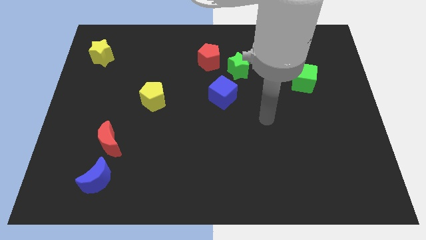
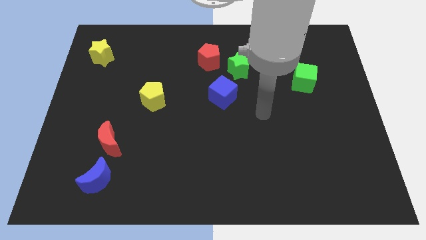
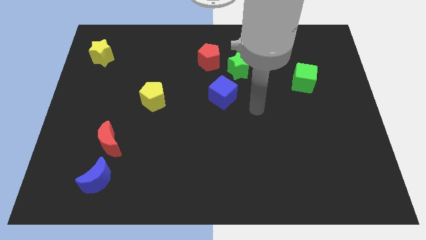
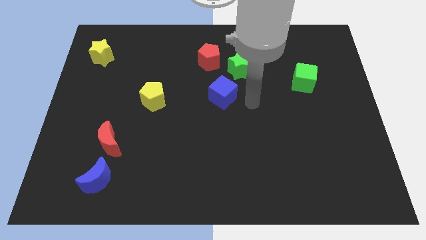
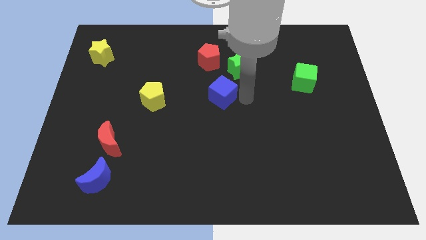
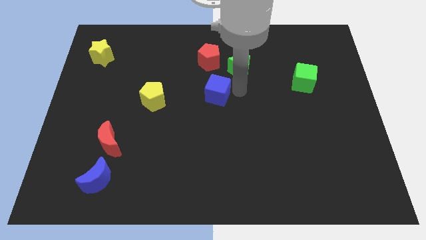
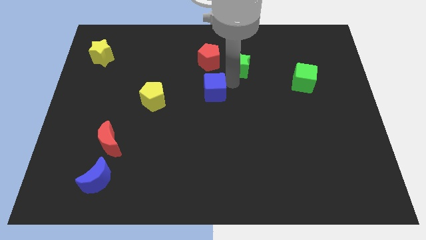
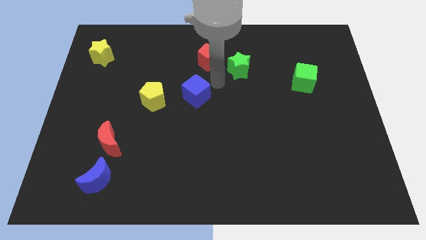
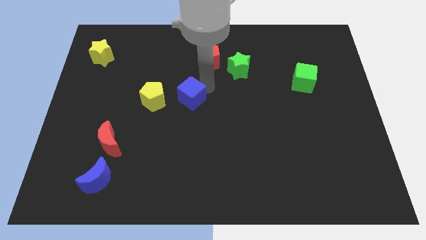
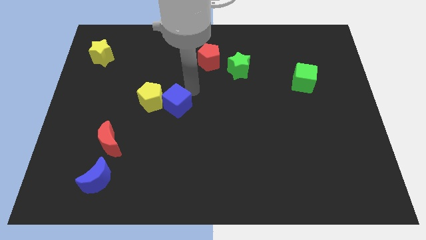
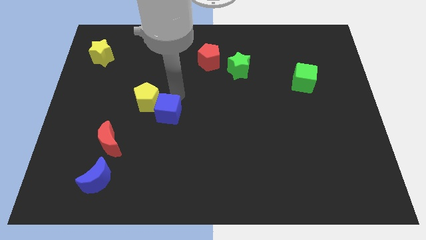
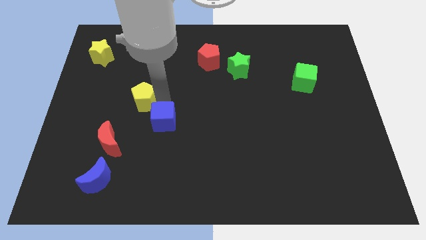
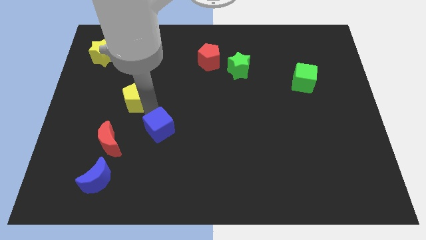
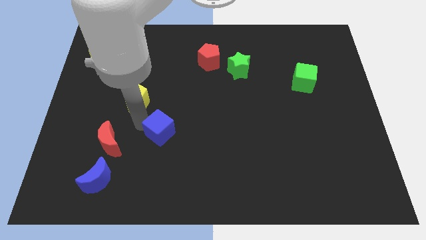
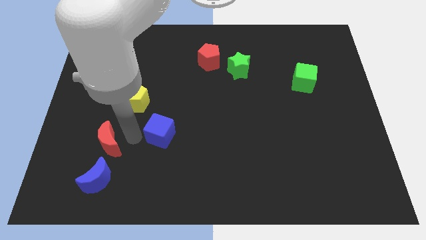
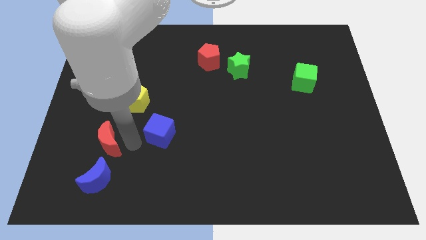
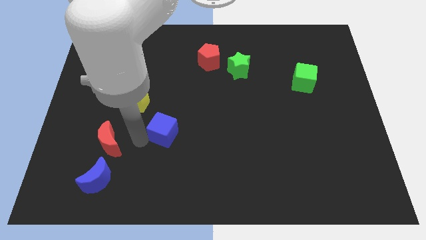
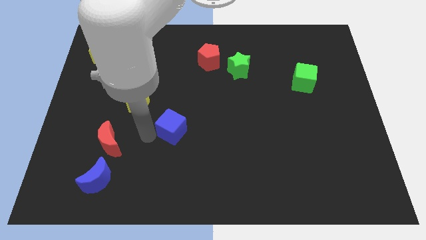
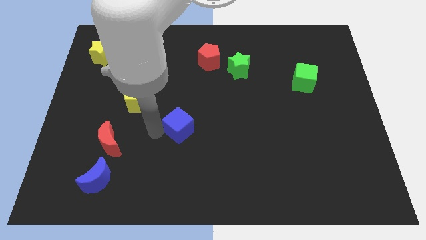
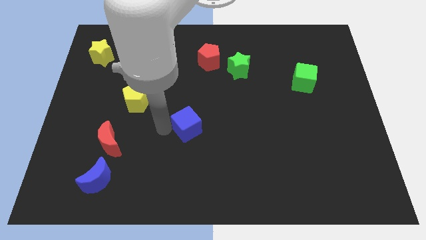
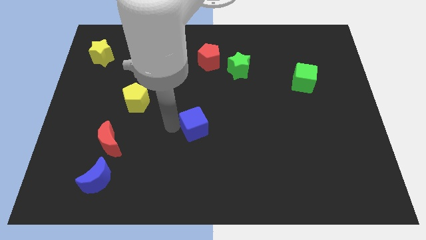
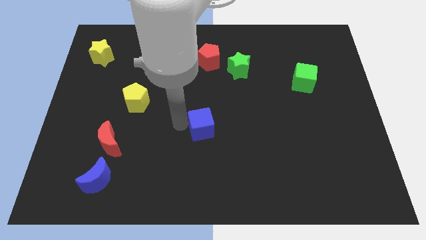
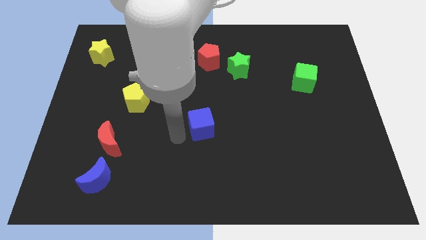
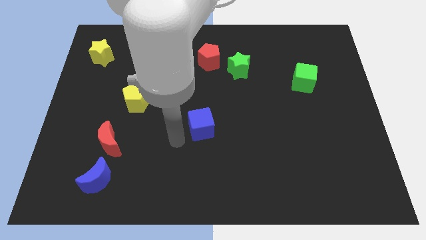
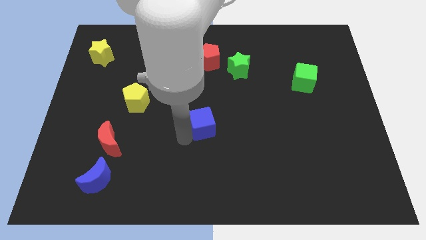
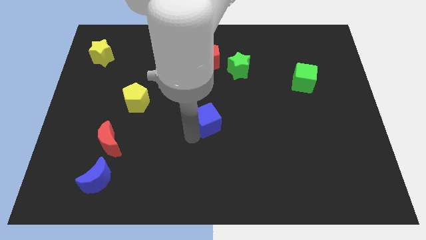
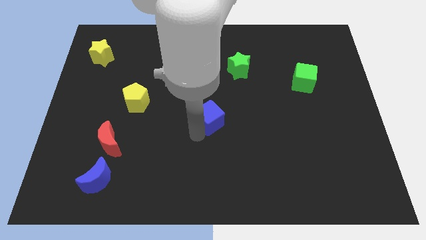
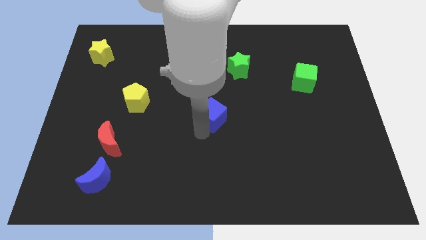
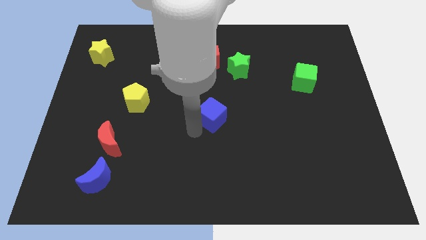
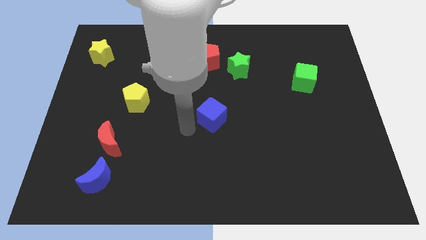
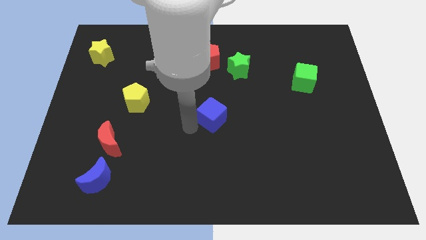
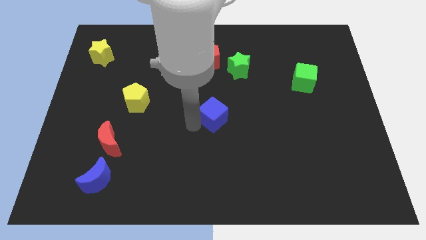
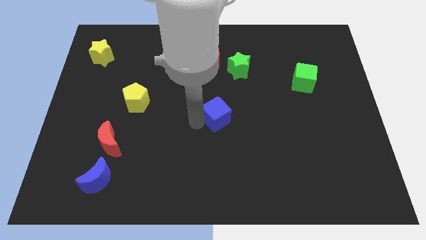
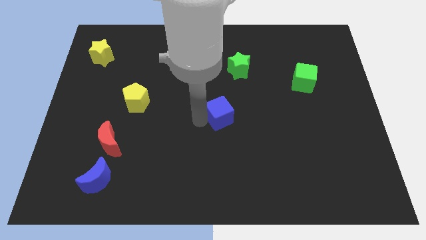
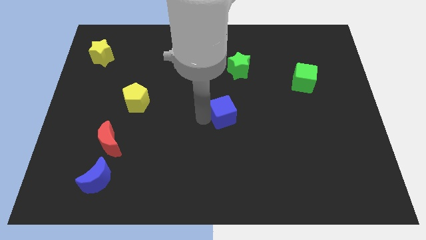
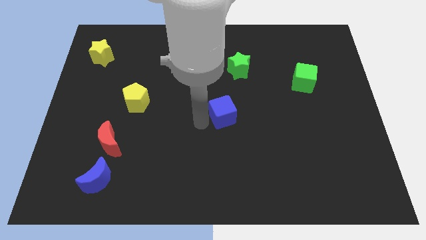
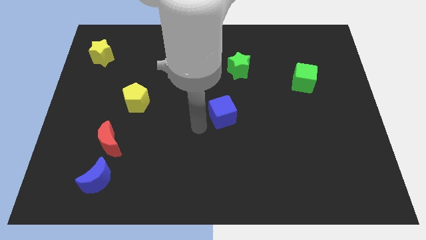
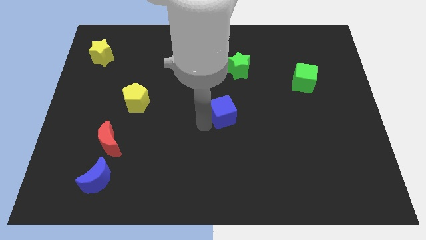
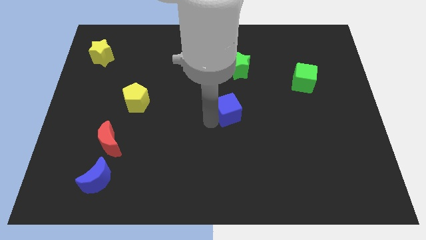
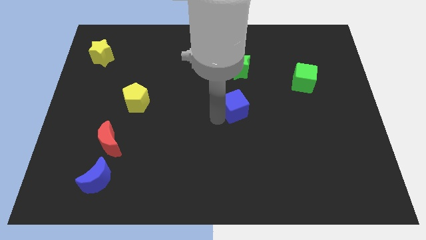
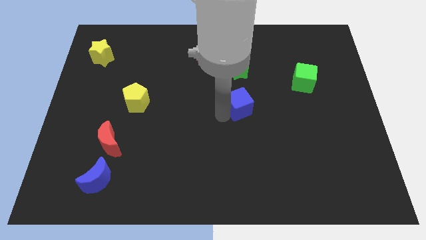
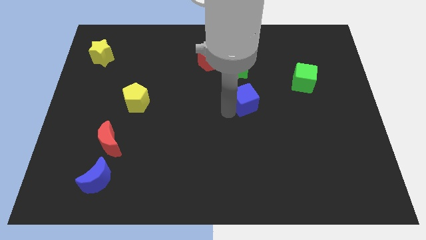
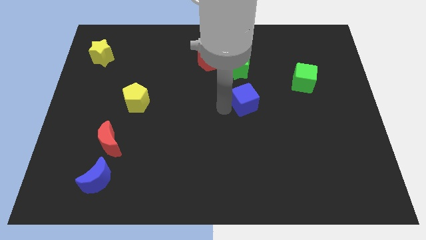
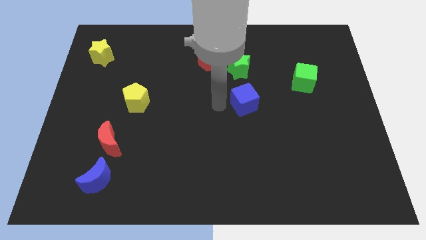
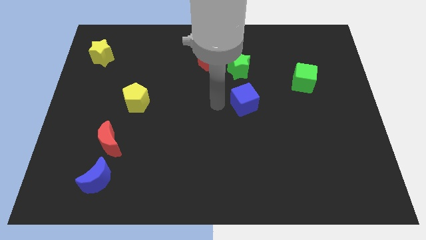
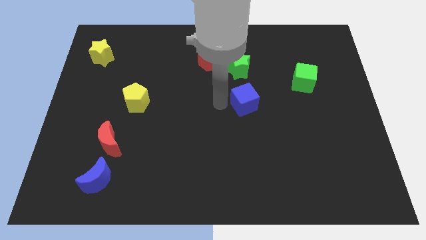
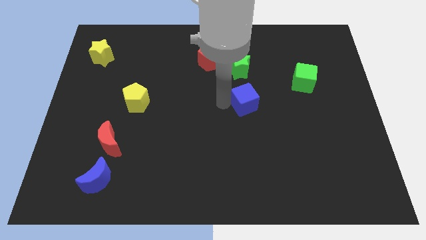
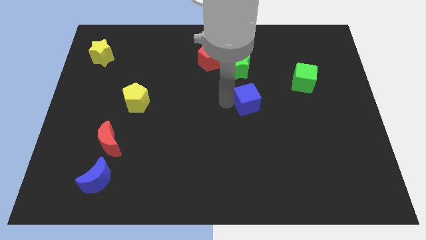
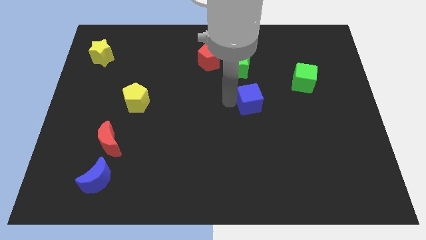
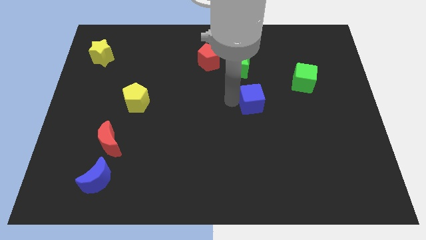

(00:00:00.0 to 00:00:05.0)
slightly slide the blue cube to the right

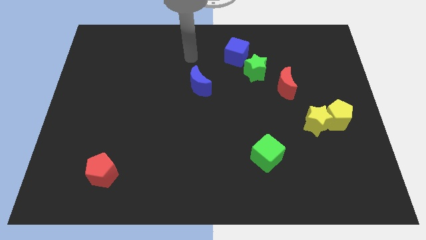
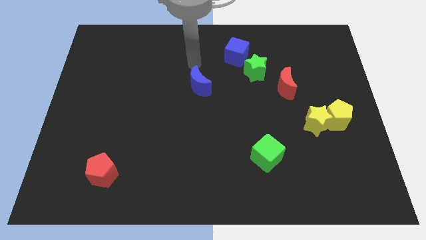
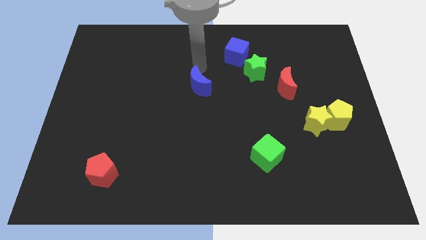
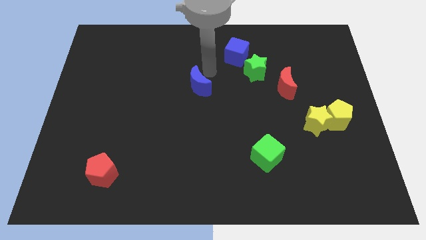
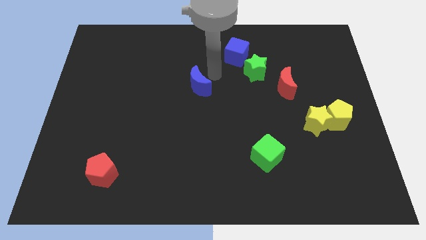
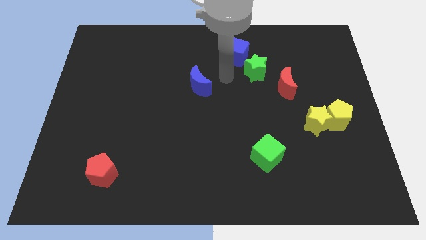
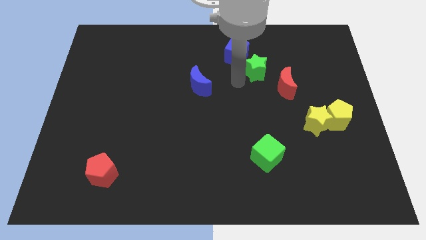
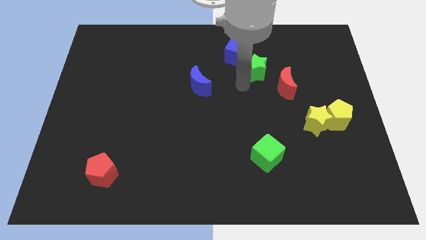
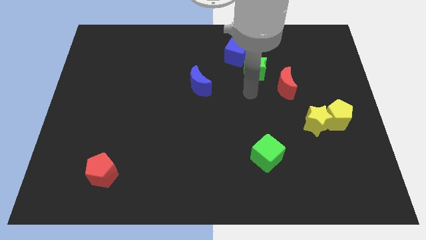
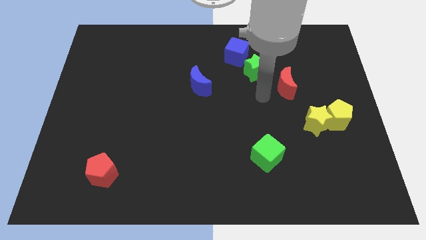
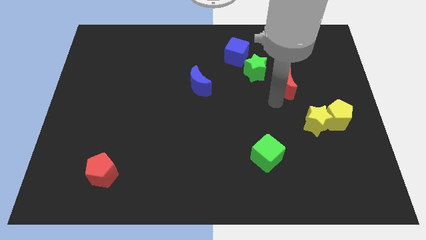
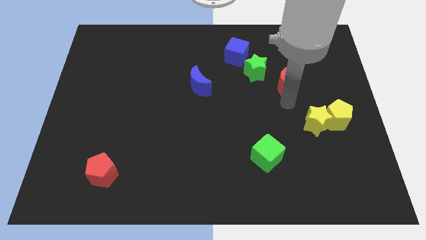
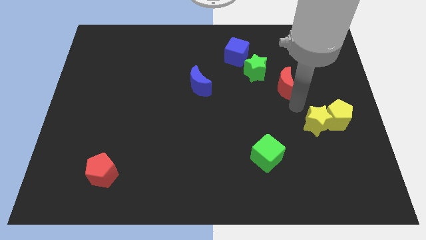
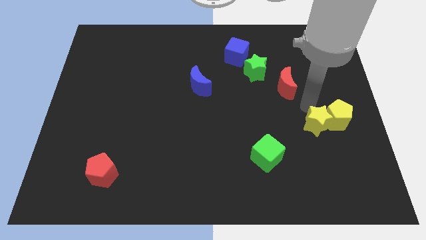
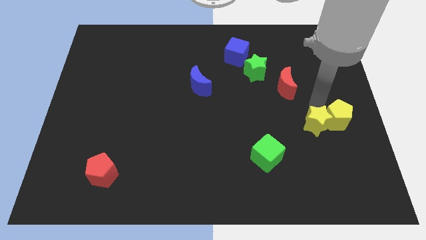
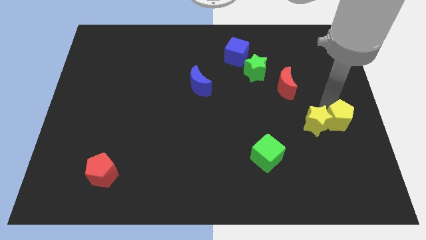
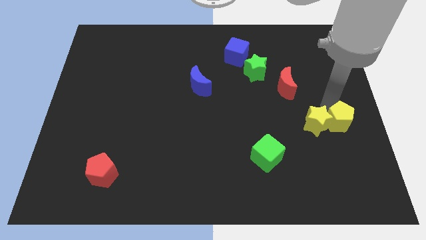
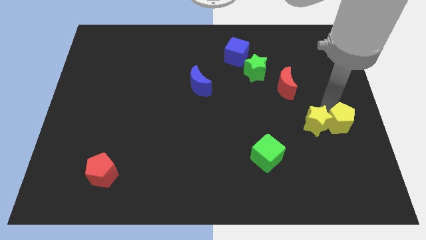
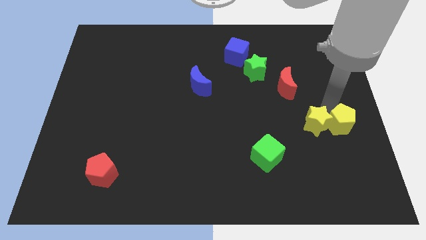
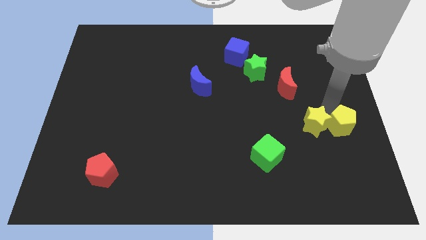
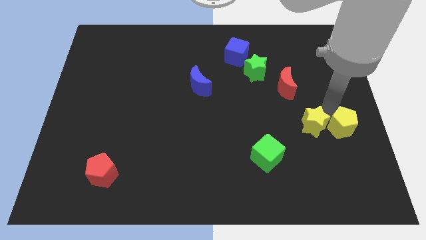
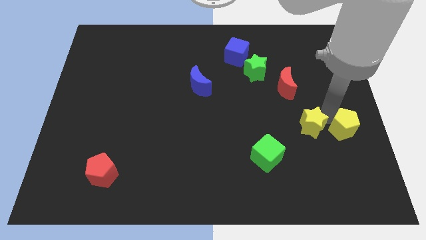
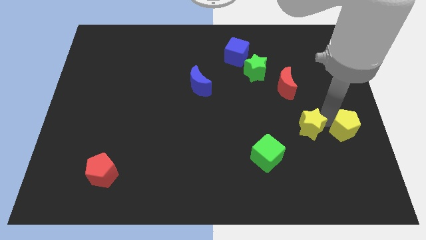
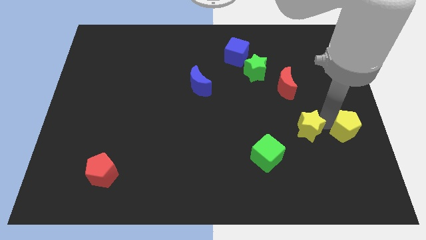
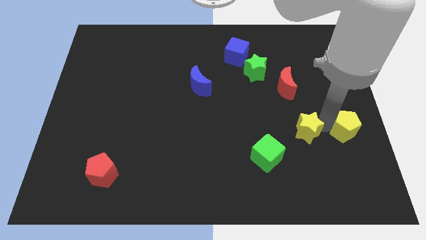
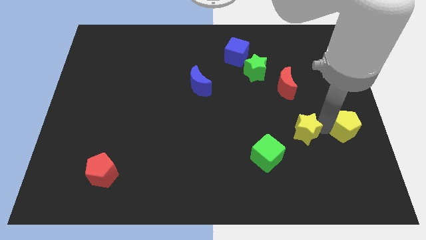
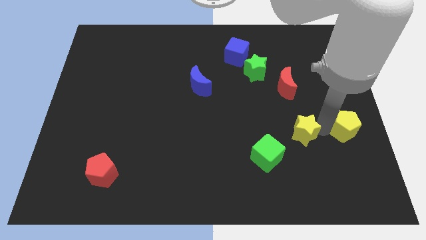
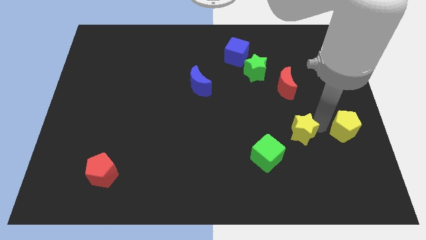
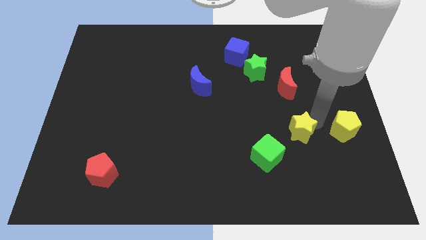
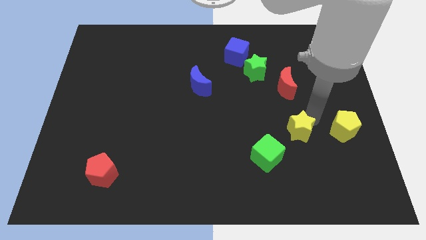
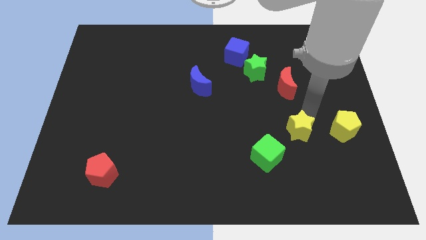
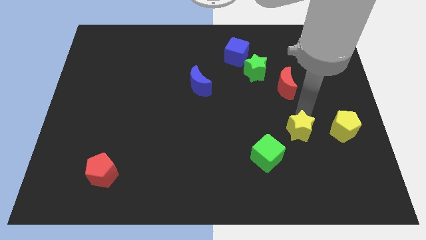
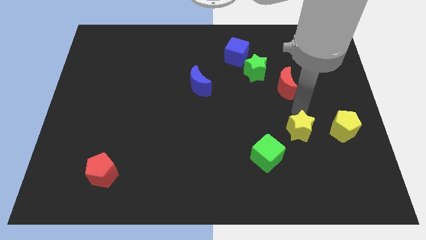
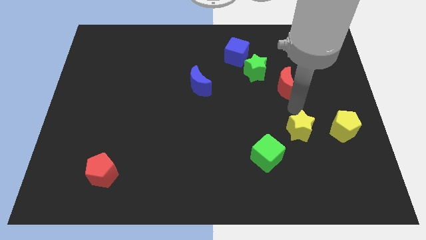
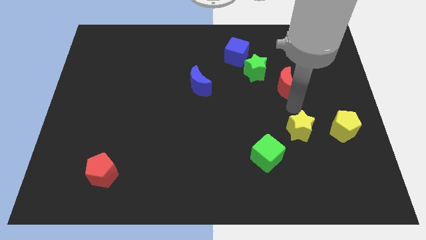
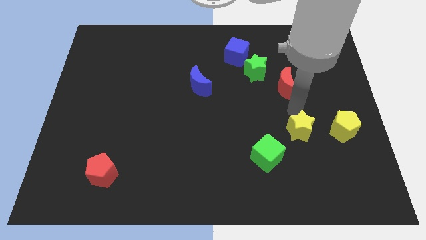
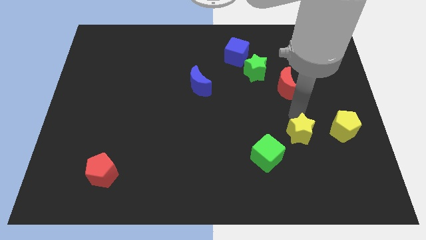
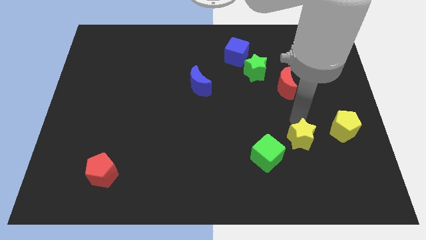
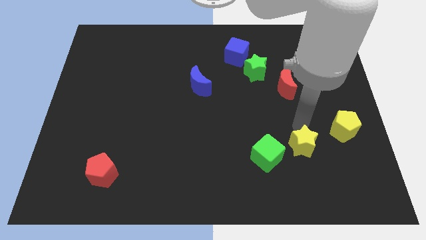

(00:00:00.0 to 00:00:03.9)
slightly slide the yellow star diagonally down and left
